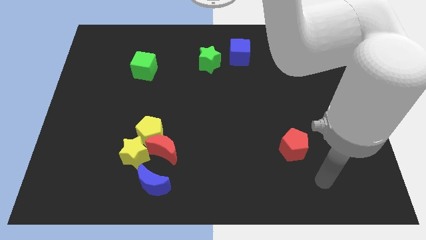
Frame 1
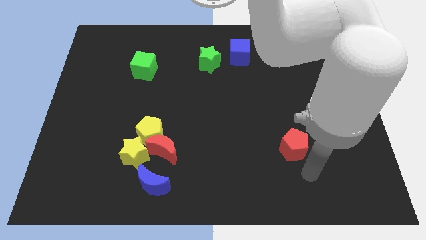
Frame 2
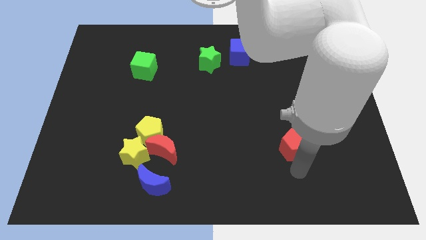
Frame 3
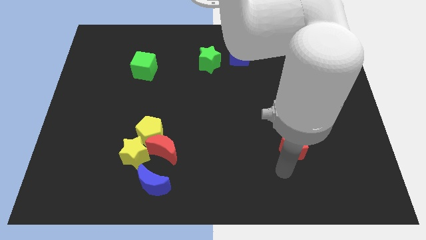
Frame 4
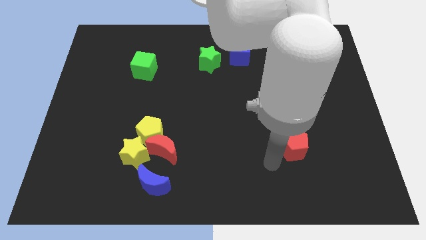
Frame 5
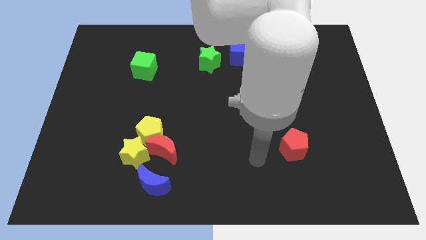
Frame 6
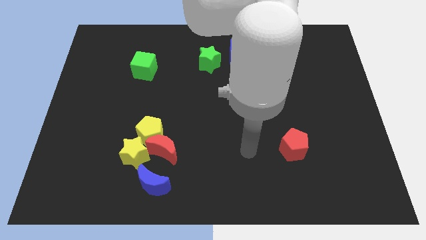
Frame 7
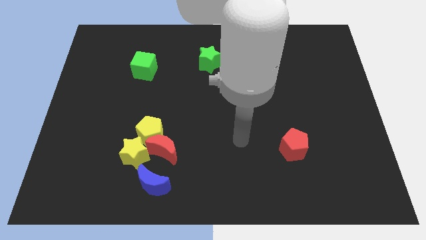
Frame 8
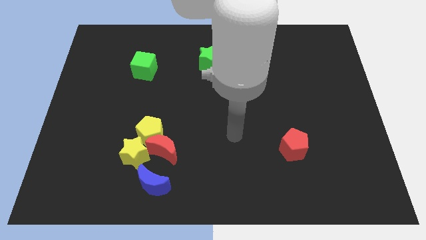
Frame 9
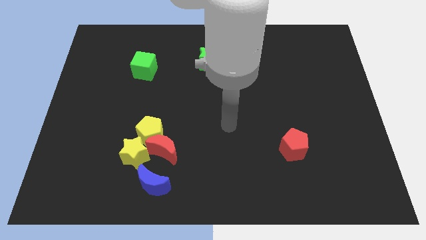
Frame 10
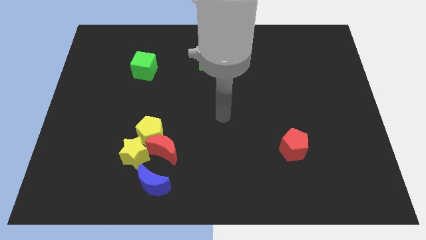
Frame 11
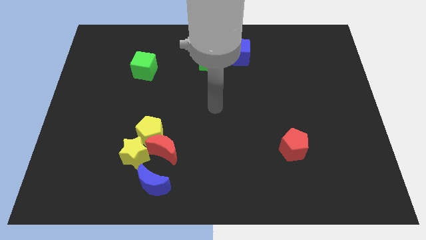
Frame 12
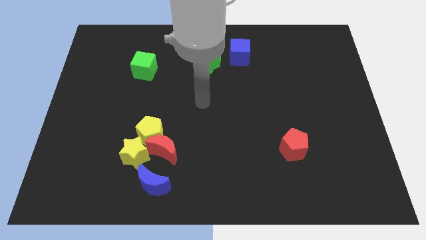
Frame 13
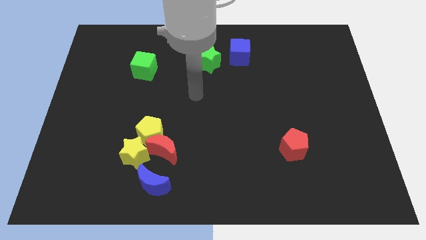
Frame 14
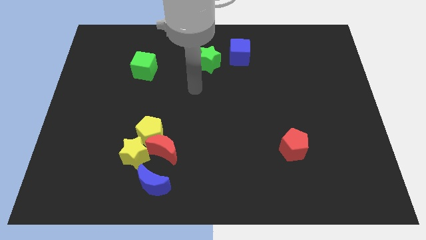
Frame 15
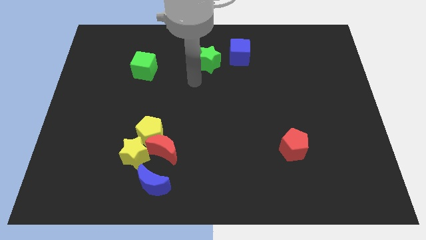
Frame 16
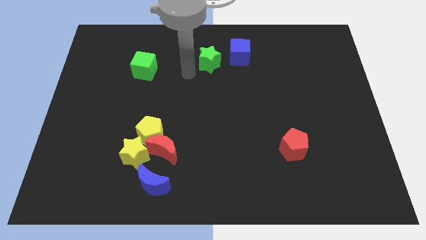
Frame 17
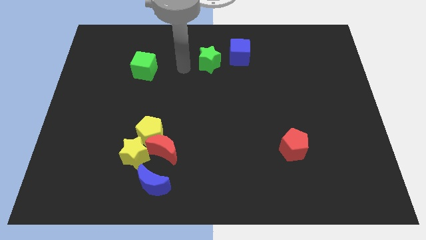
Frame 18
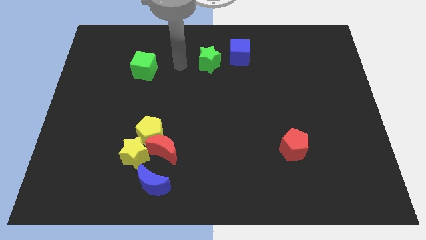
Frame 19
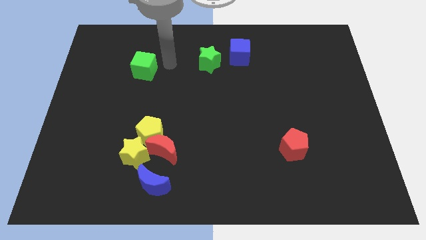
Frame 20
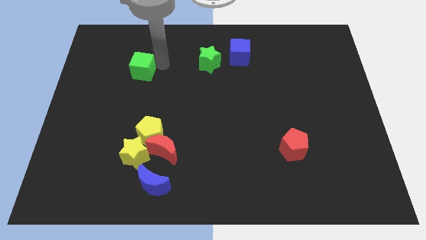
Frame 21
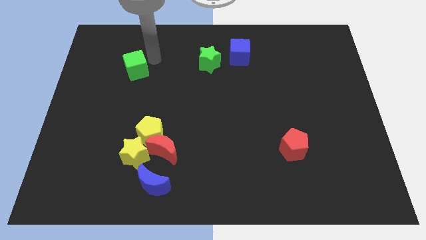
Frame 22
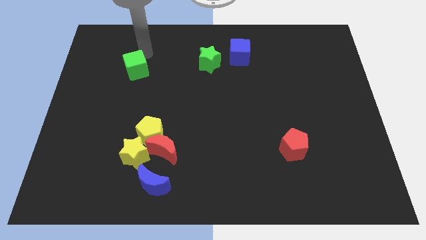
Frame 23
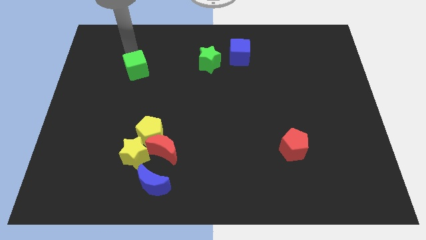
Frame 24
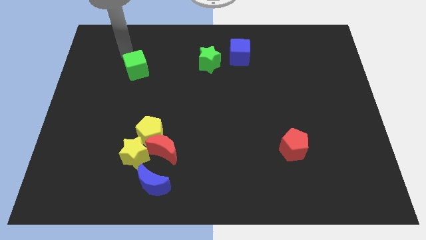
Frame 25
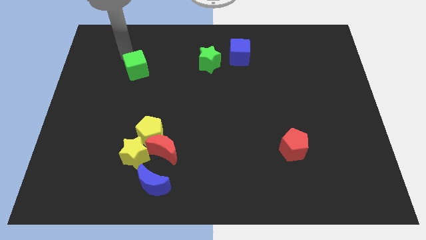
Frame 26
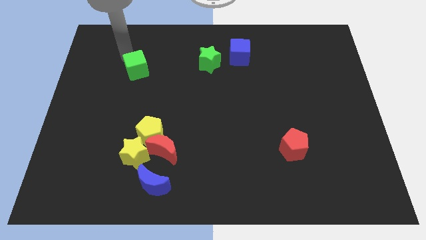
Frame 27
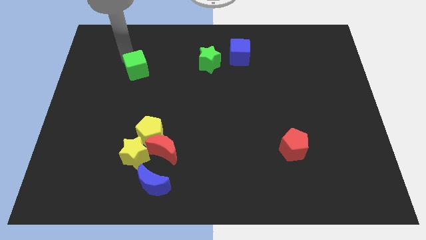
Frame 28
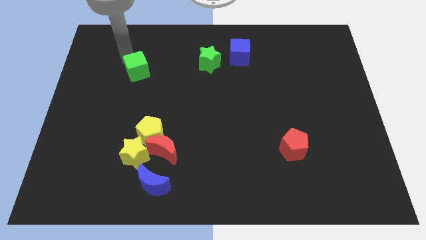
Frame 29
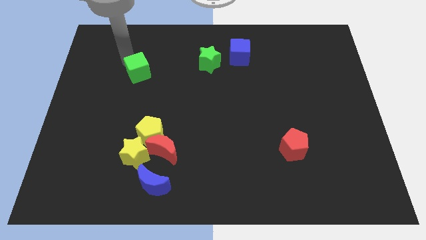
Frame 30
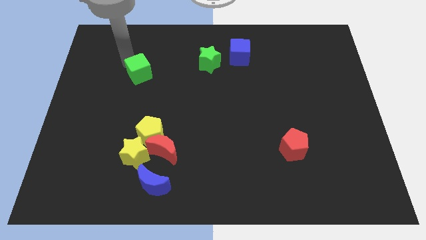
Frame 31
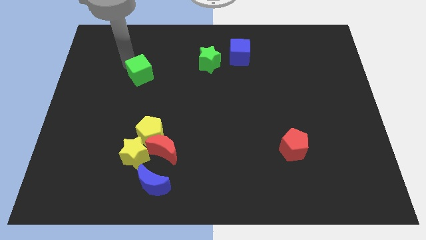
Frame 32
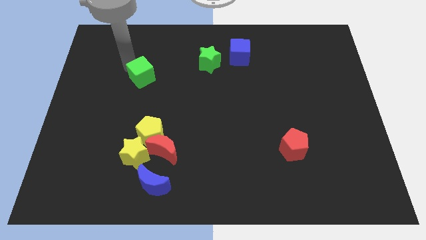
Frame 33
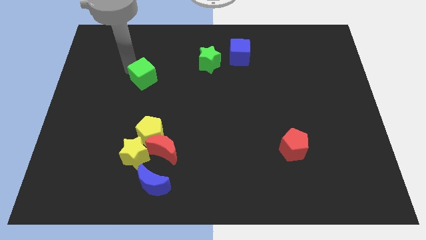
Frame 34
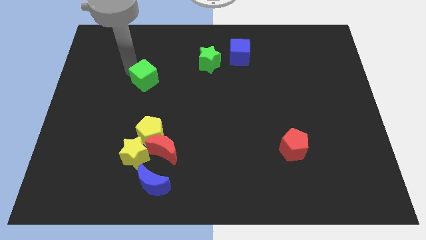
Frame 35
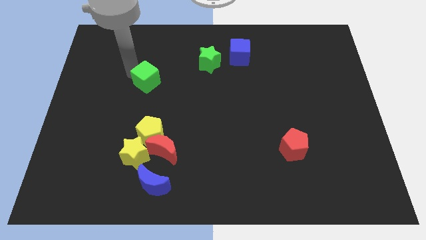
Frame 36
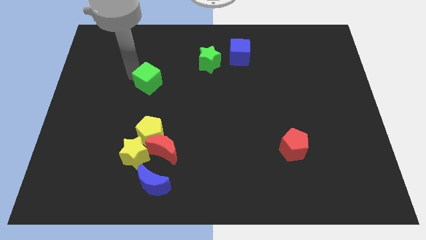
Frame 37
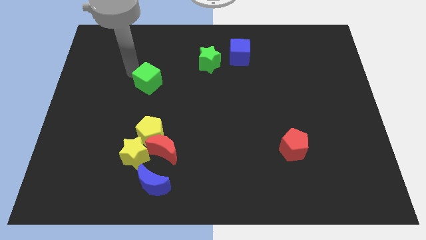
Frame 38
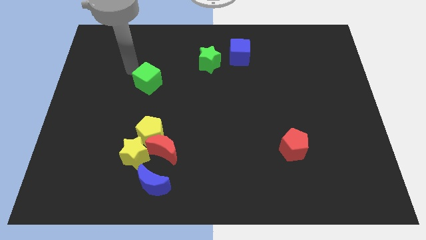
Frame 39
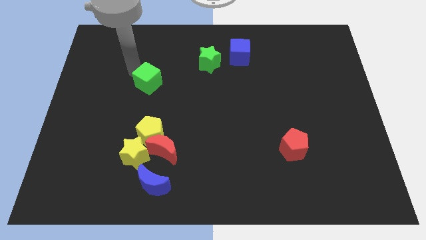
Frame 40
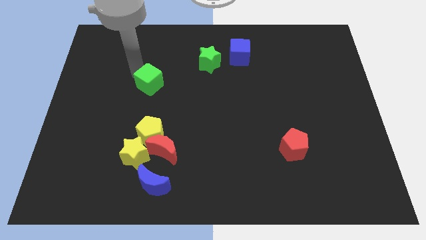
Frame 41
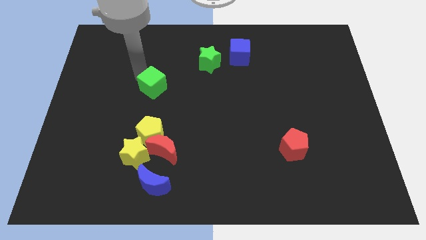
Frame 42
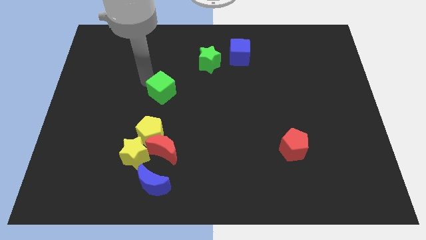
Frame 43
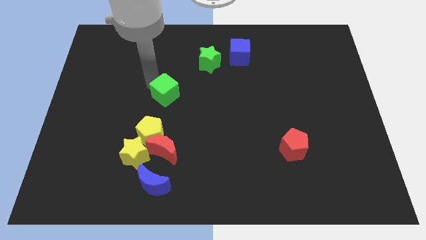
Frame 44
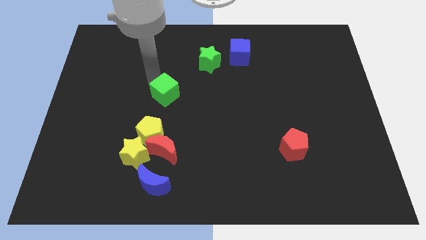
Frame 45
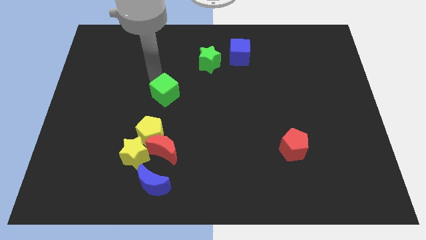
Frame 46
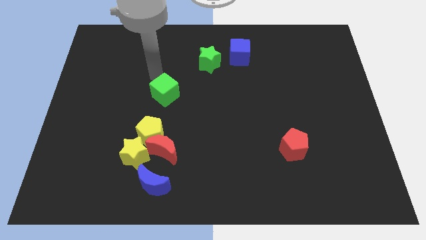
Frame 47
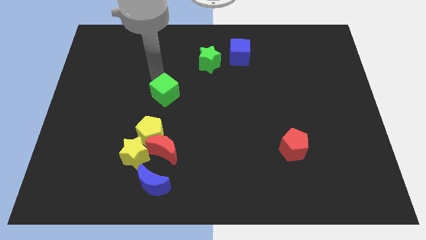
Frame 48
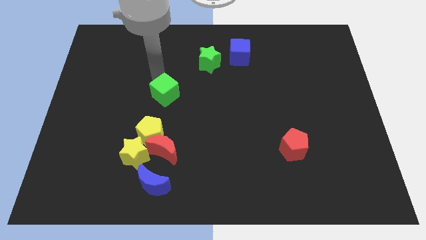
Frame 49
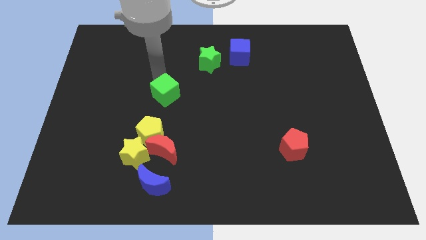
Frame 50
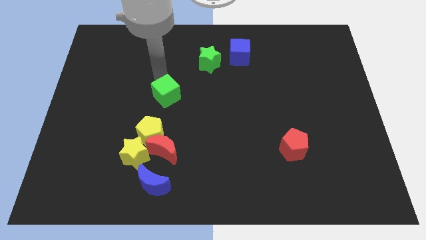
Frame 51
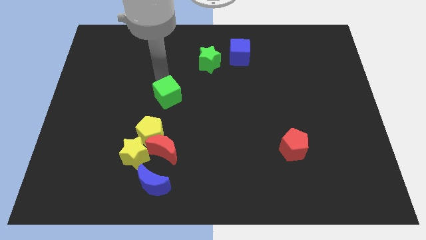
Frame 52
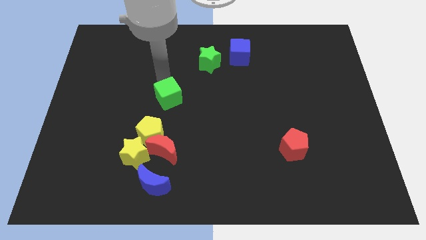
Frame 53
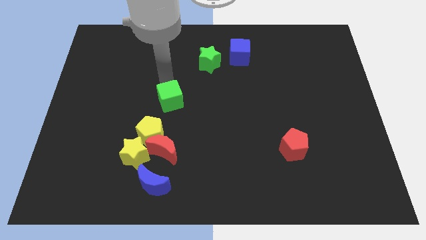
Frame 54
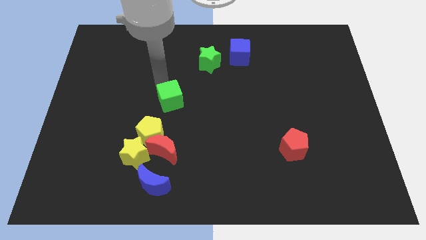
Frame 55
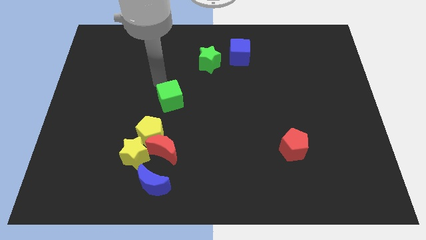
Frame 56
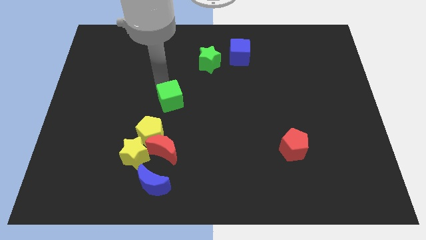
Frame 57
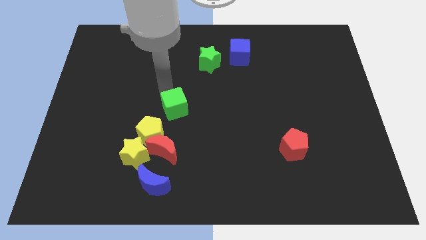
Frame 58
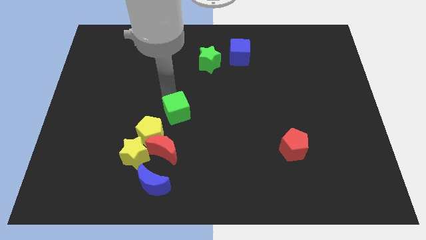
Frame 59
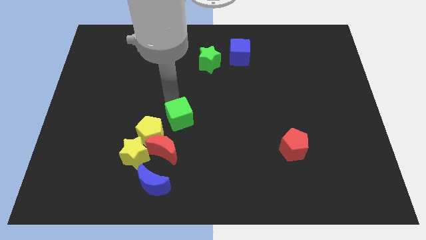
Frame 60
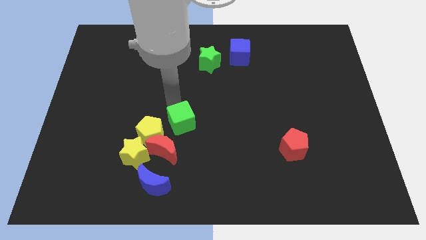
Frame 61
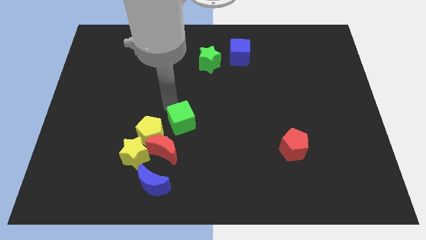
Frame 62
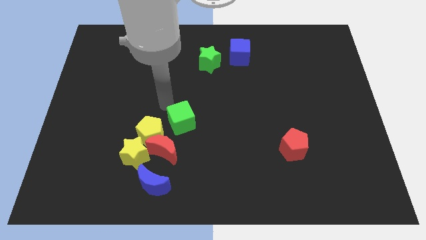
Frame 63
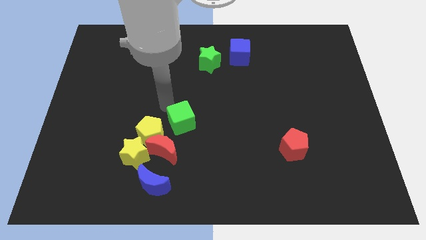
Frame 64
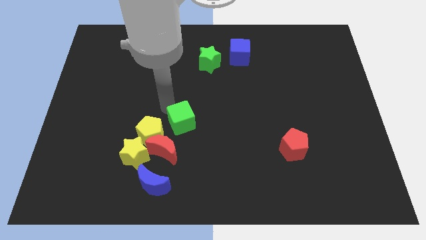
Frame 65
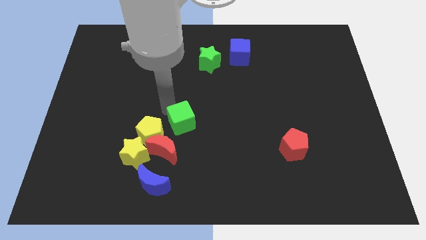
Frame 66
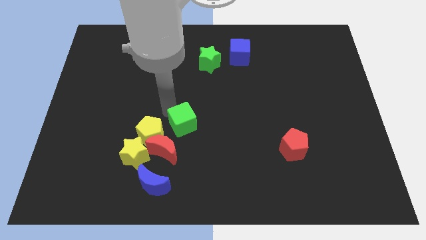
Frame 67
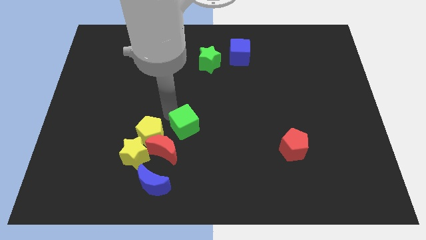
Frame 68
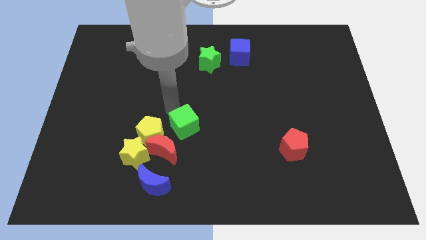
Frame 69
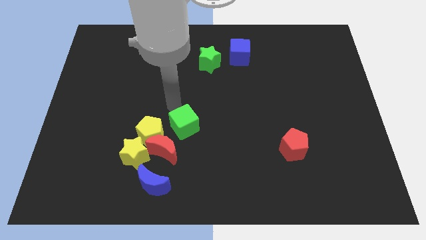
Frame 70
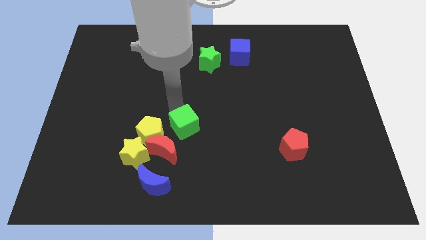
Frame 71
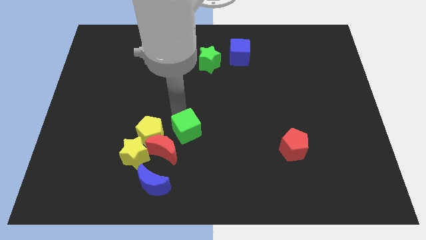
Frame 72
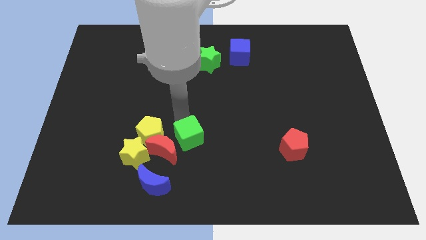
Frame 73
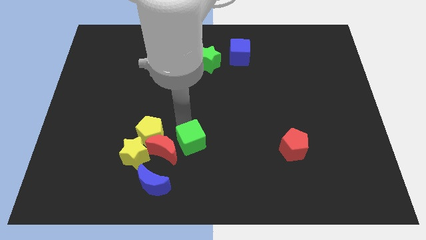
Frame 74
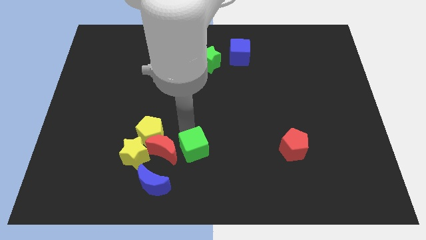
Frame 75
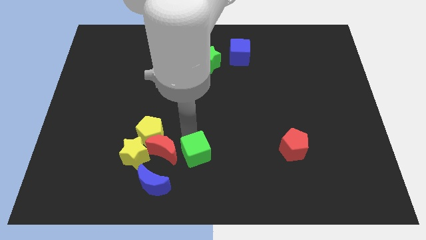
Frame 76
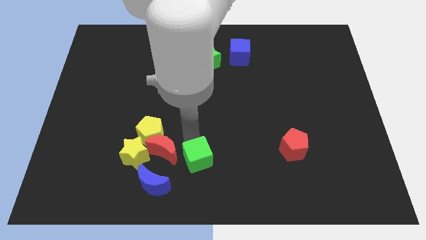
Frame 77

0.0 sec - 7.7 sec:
put the green cube to the bottom side
